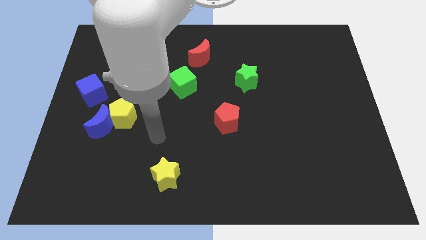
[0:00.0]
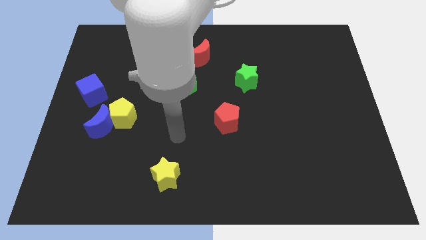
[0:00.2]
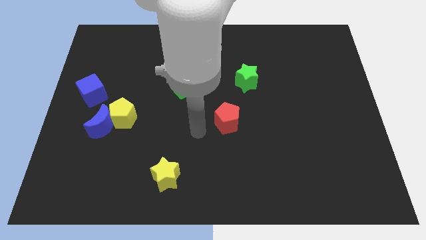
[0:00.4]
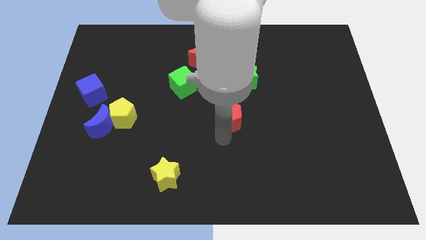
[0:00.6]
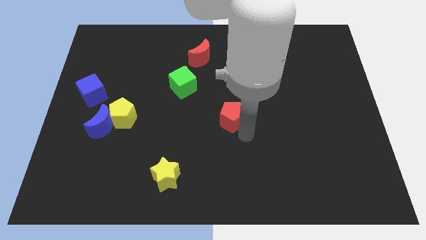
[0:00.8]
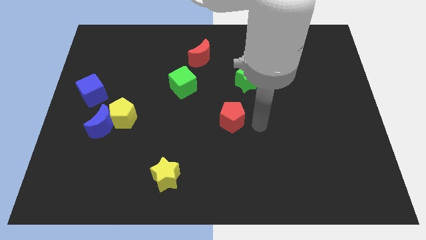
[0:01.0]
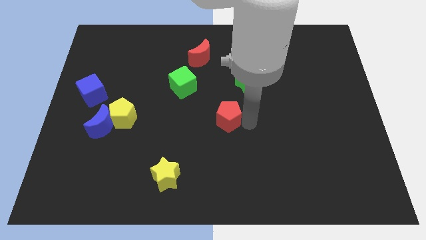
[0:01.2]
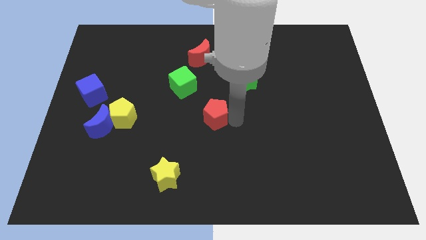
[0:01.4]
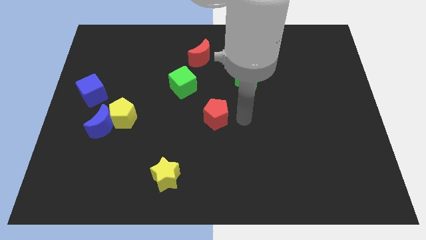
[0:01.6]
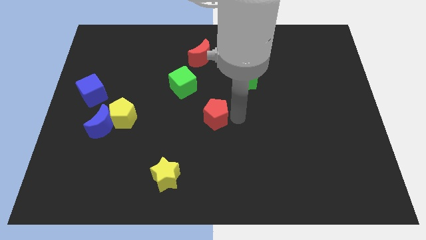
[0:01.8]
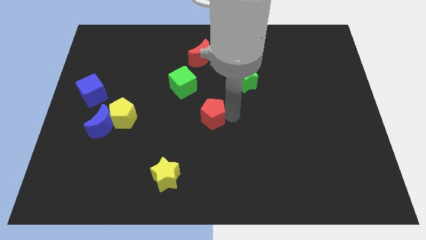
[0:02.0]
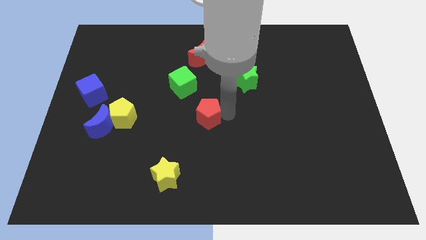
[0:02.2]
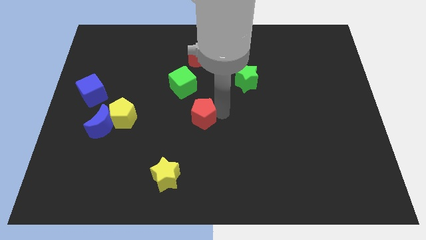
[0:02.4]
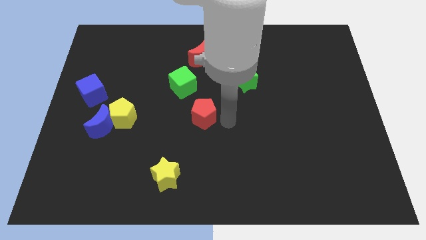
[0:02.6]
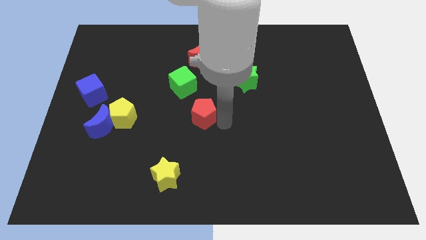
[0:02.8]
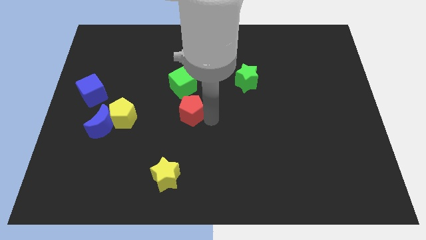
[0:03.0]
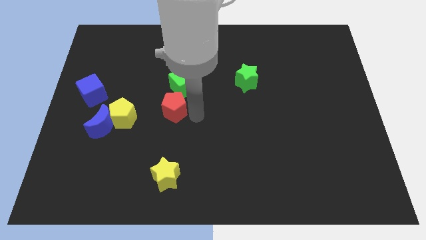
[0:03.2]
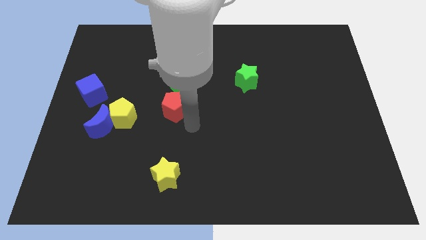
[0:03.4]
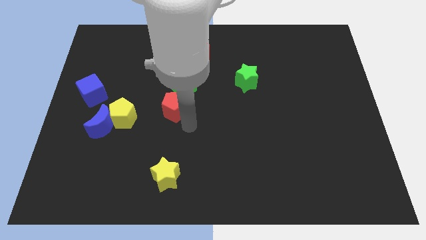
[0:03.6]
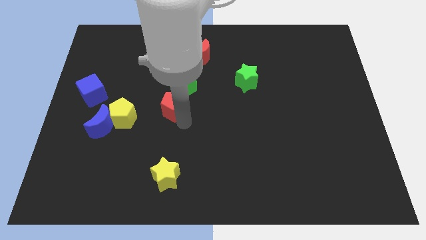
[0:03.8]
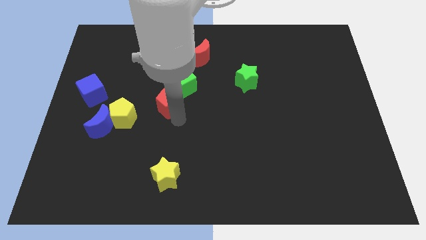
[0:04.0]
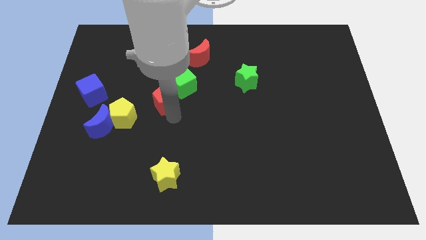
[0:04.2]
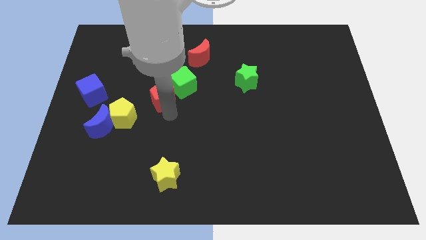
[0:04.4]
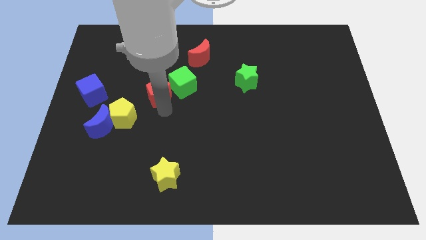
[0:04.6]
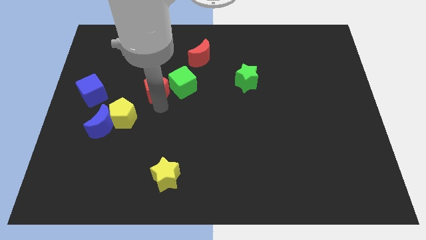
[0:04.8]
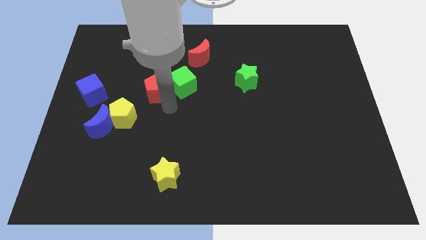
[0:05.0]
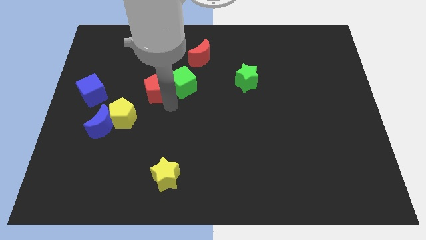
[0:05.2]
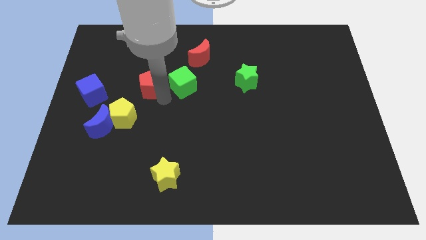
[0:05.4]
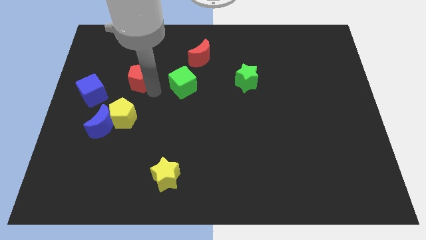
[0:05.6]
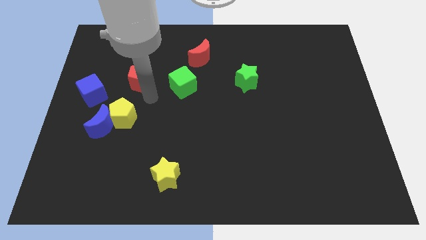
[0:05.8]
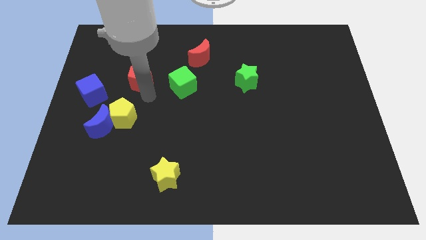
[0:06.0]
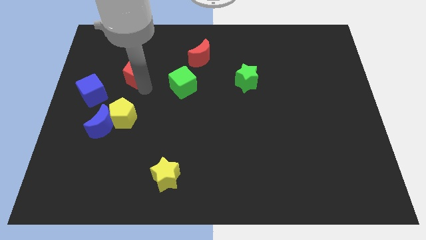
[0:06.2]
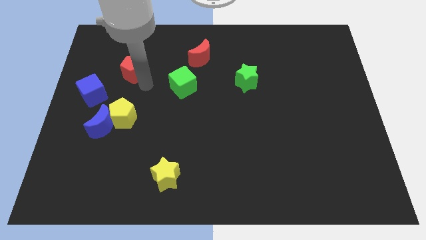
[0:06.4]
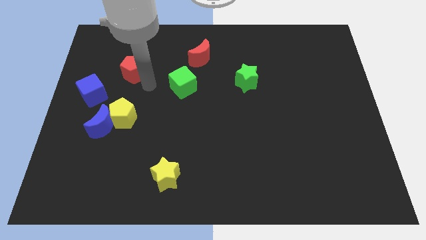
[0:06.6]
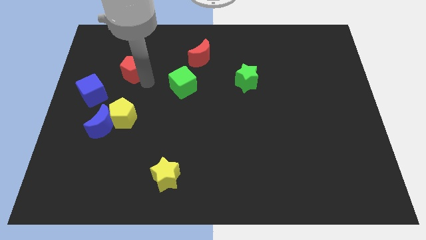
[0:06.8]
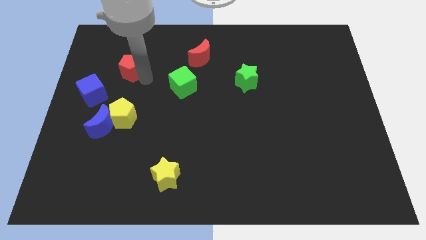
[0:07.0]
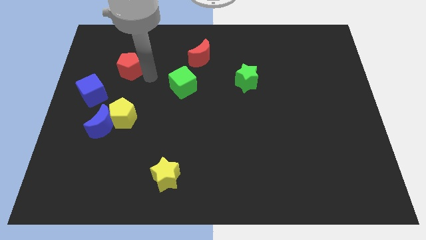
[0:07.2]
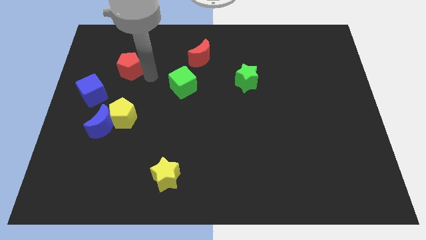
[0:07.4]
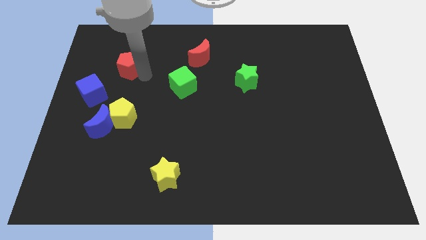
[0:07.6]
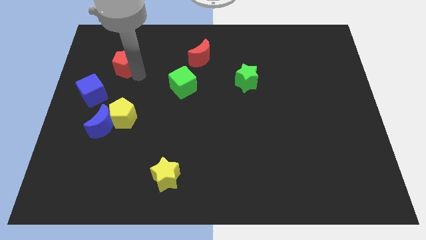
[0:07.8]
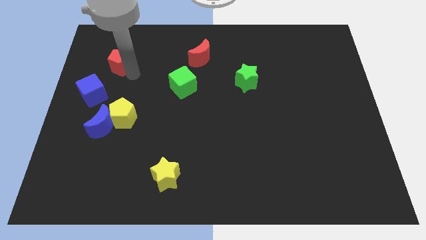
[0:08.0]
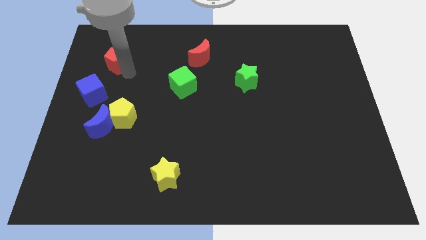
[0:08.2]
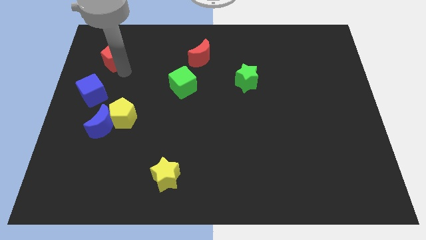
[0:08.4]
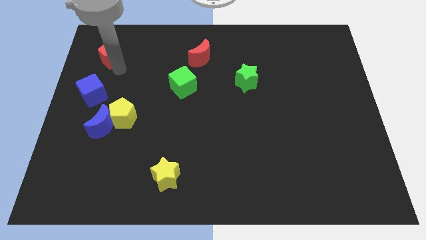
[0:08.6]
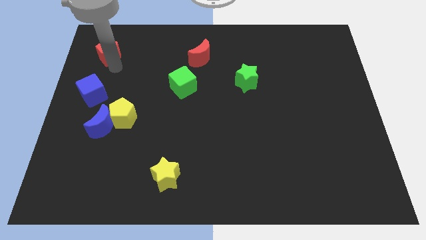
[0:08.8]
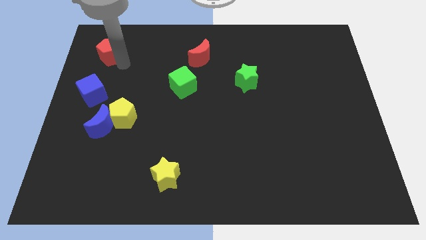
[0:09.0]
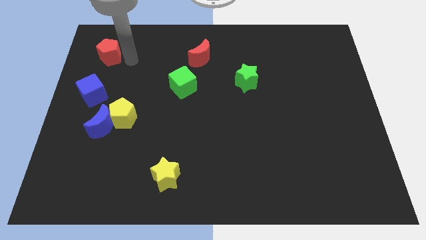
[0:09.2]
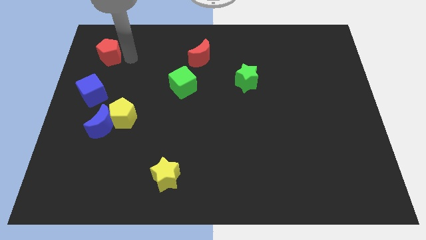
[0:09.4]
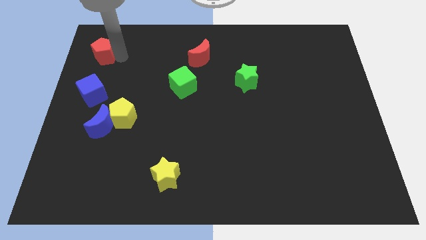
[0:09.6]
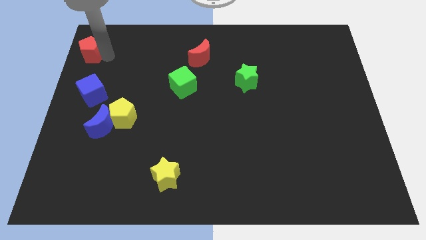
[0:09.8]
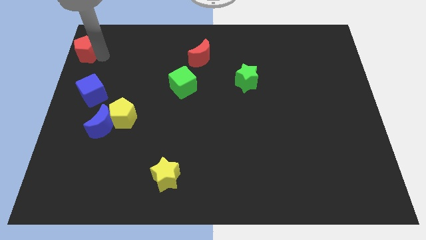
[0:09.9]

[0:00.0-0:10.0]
slide the red pentagon to the top left of the board

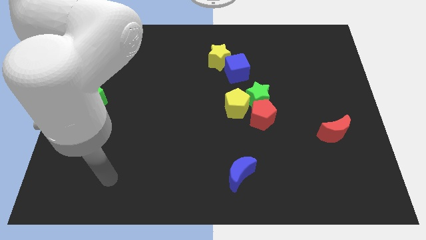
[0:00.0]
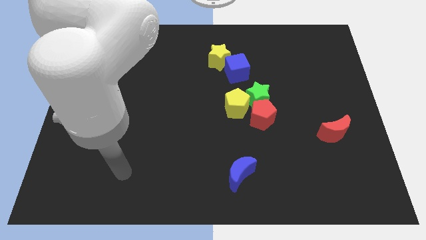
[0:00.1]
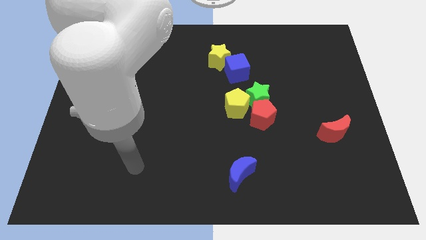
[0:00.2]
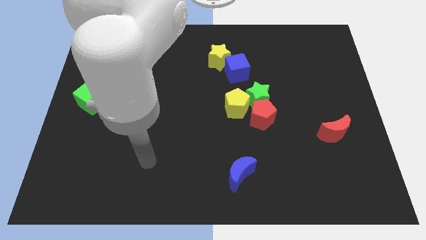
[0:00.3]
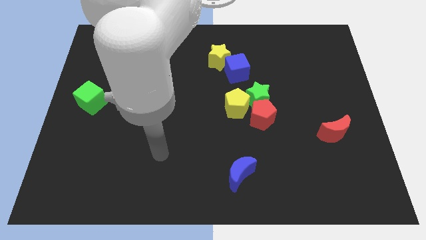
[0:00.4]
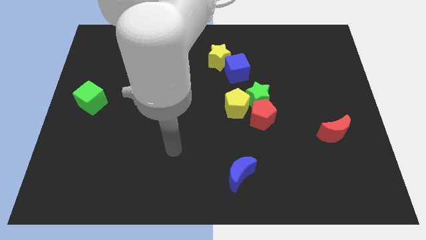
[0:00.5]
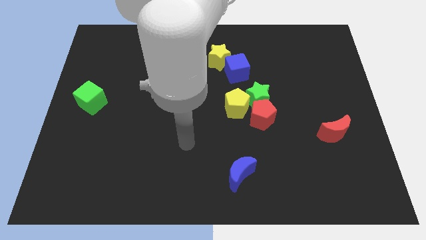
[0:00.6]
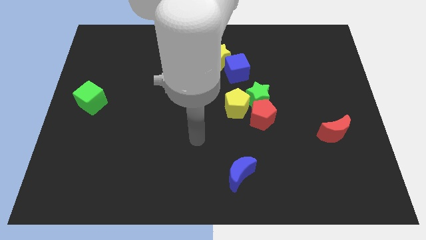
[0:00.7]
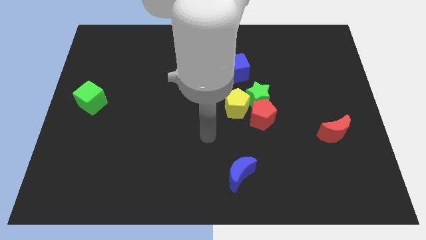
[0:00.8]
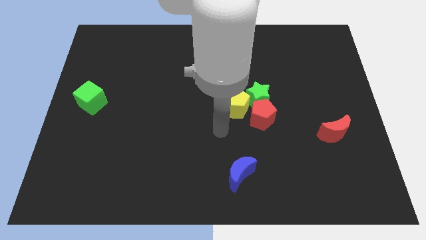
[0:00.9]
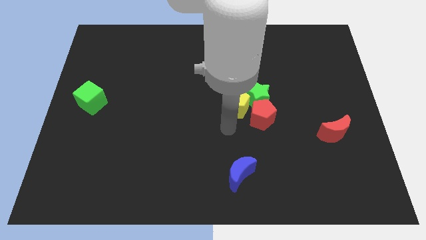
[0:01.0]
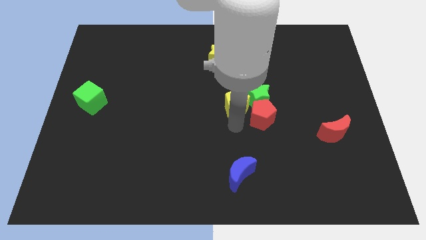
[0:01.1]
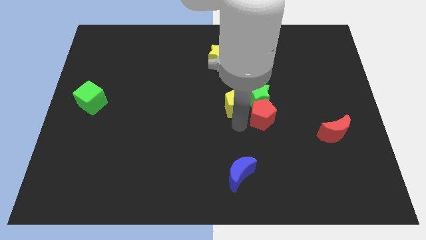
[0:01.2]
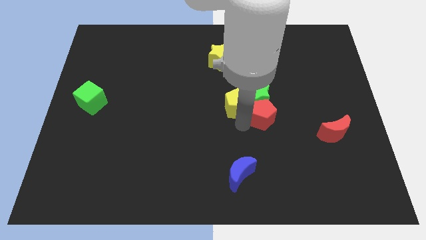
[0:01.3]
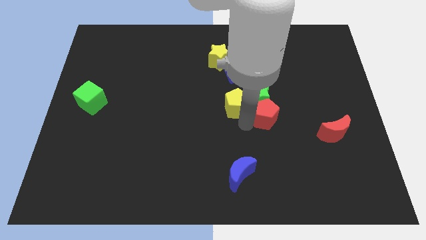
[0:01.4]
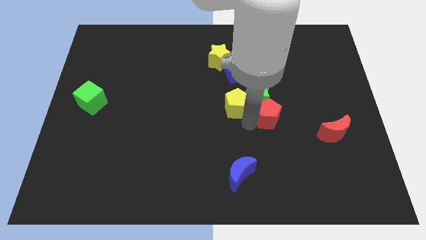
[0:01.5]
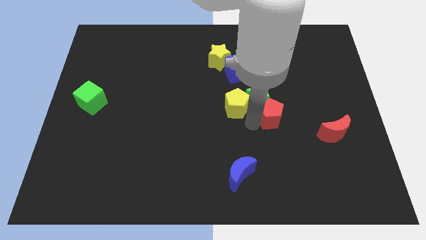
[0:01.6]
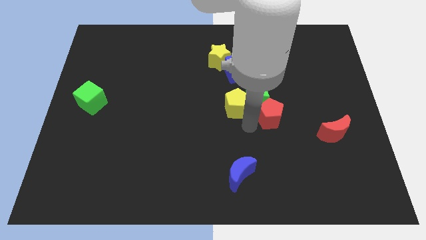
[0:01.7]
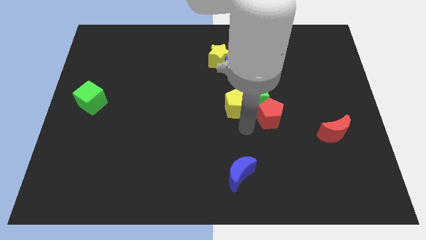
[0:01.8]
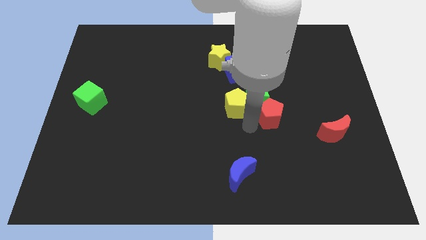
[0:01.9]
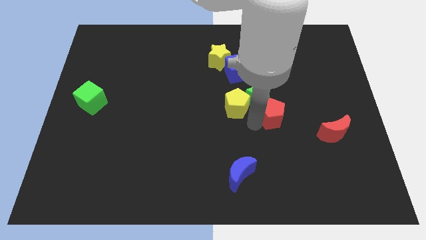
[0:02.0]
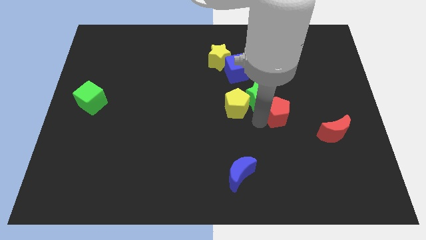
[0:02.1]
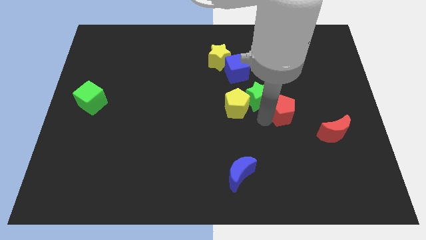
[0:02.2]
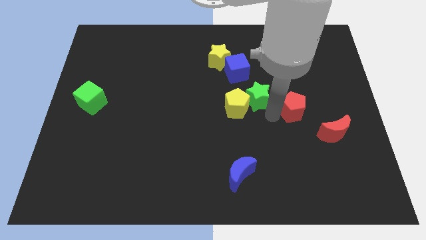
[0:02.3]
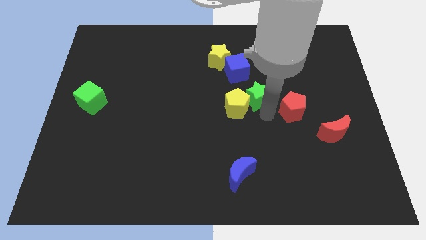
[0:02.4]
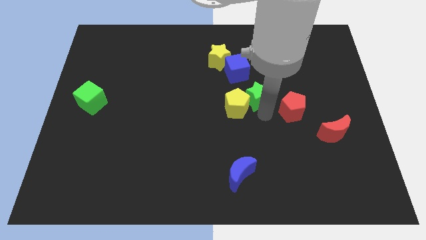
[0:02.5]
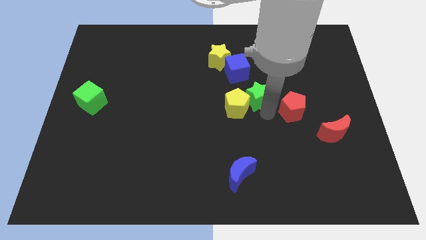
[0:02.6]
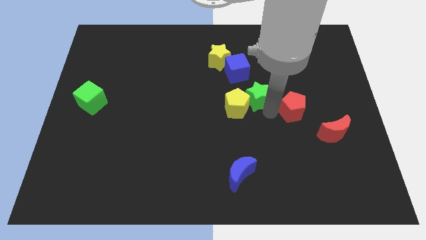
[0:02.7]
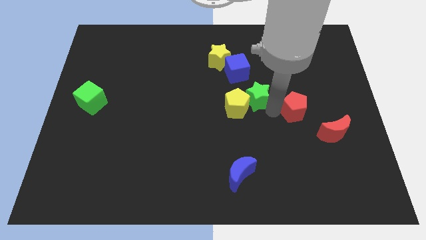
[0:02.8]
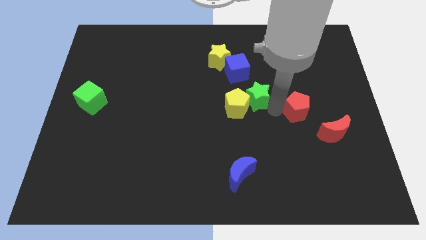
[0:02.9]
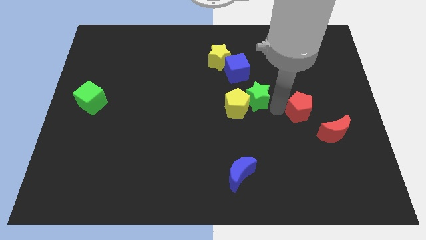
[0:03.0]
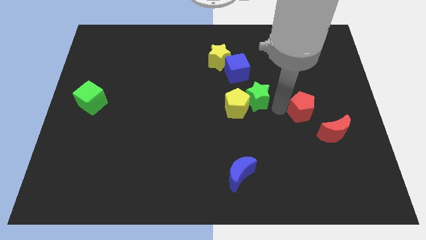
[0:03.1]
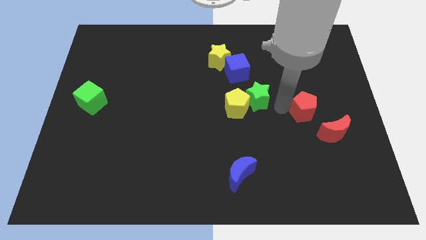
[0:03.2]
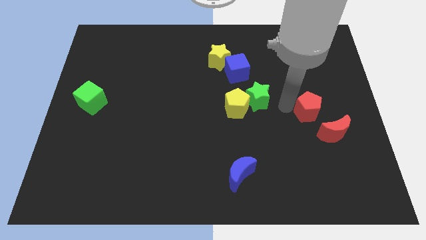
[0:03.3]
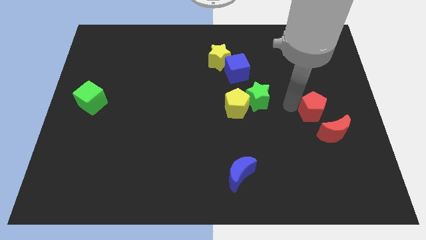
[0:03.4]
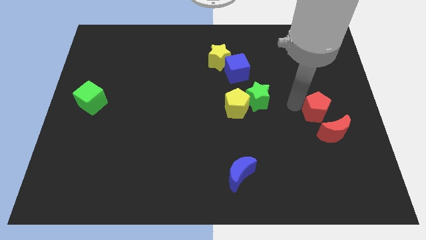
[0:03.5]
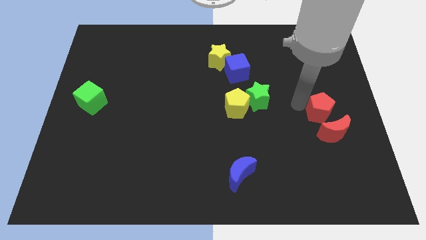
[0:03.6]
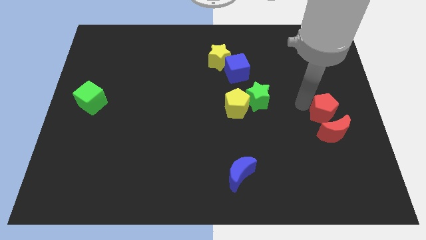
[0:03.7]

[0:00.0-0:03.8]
slide the red pentagon to the right side
